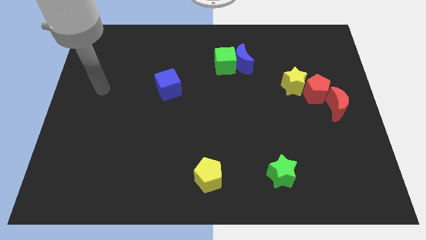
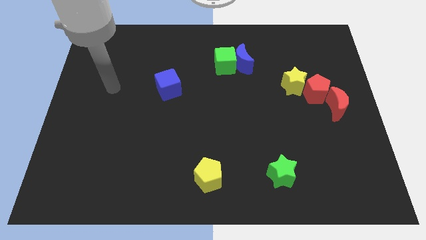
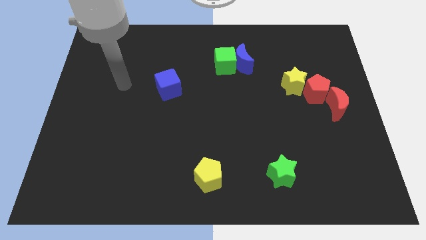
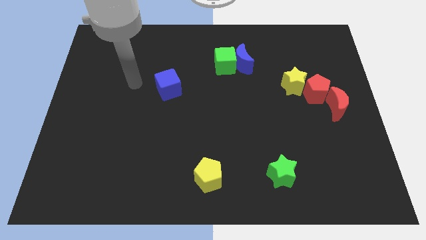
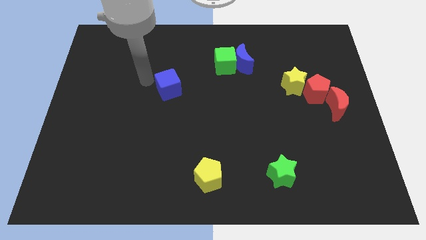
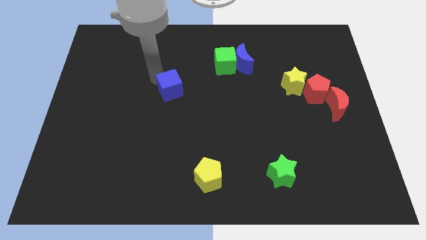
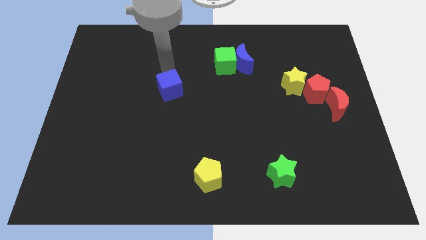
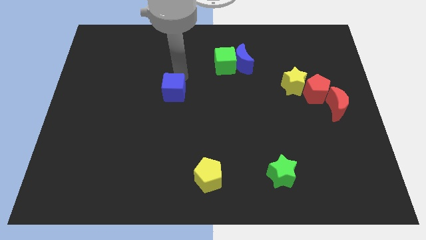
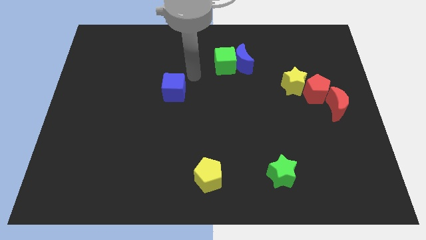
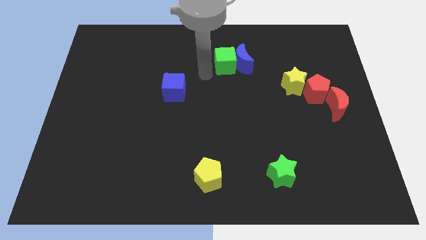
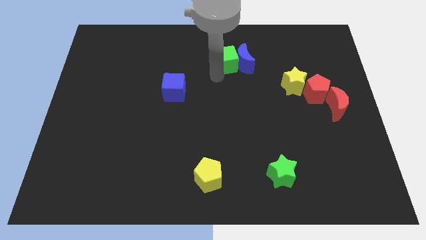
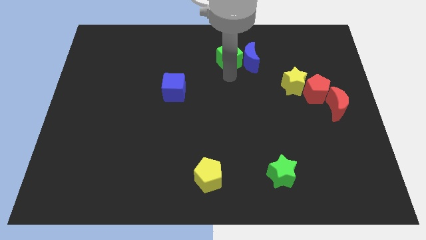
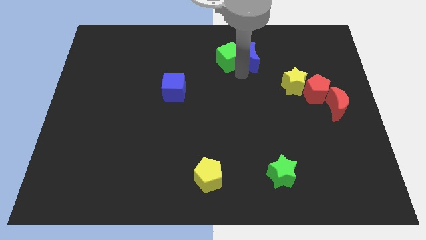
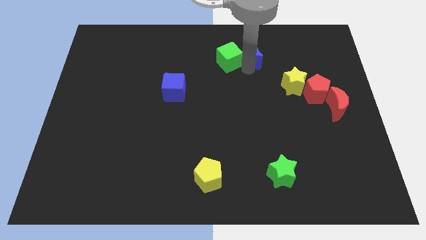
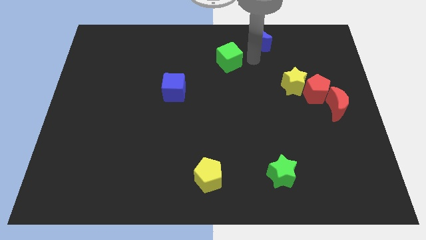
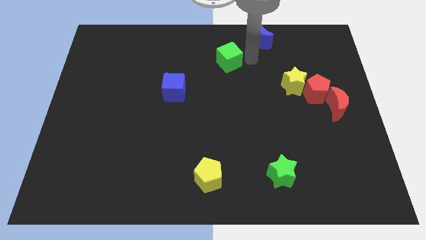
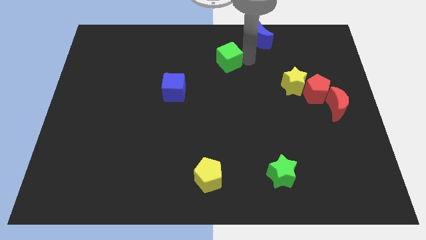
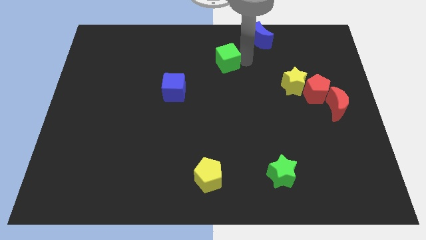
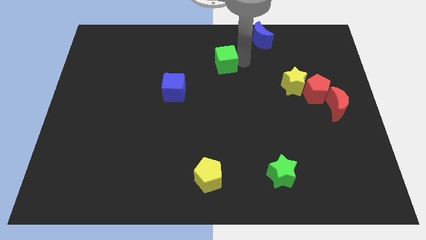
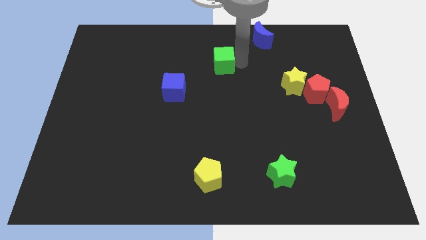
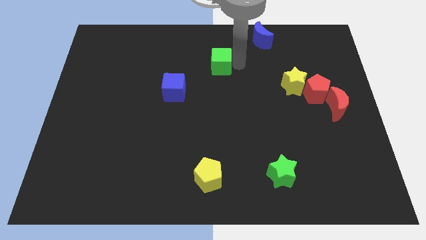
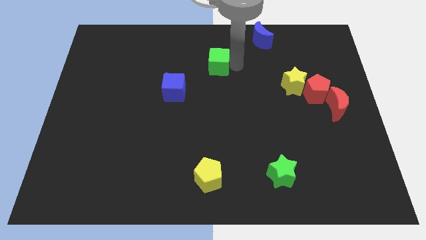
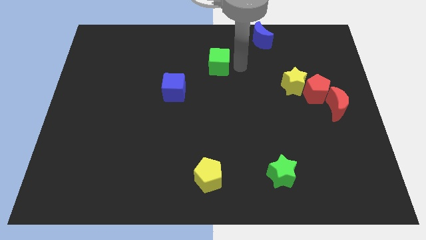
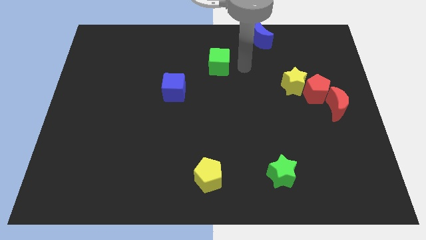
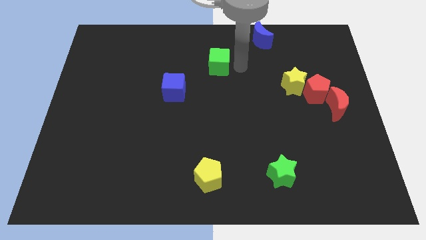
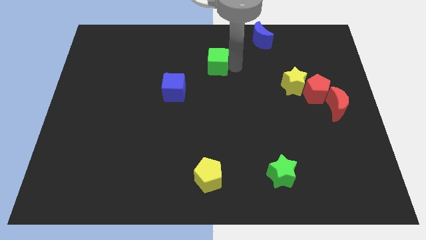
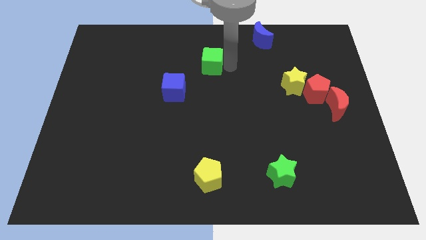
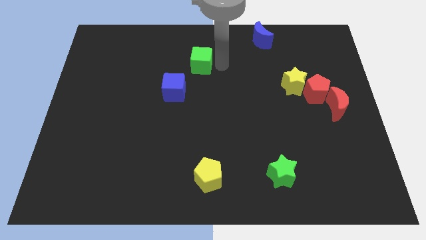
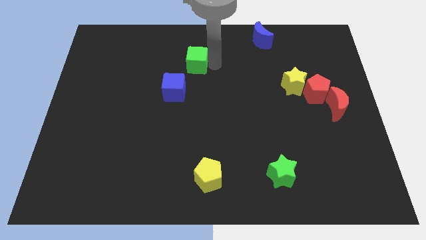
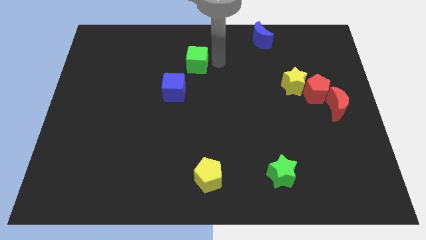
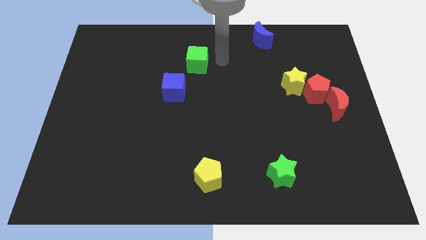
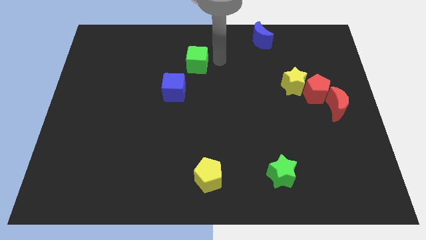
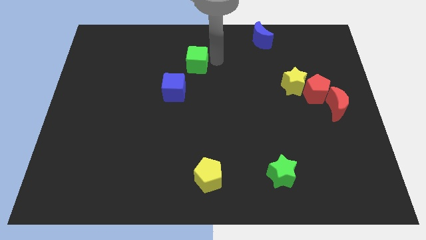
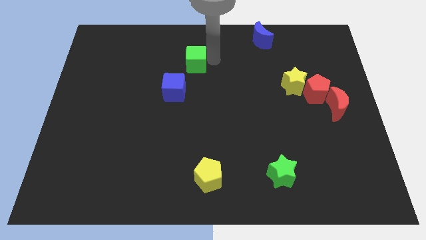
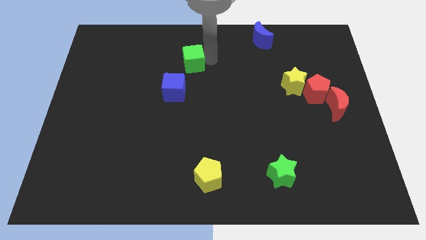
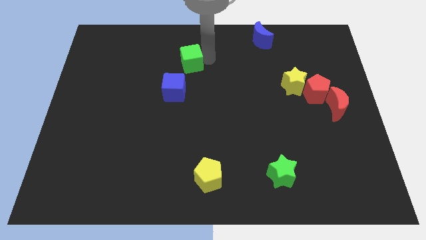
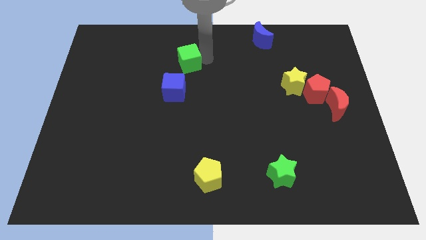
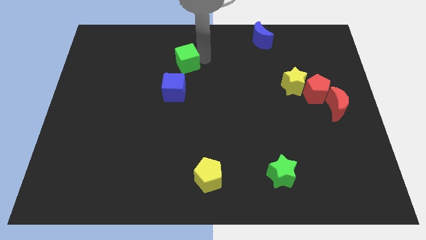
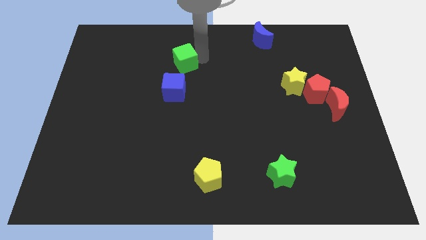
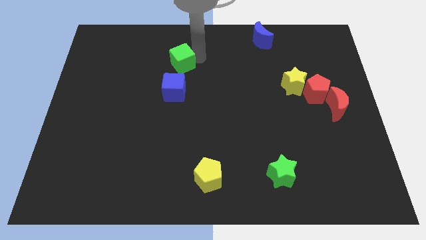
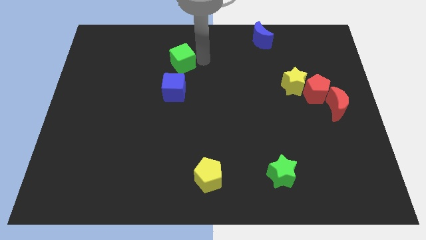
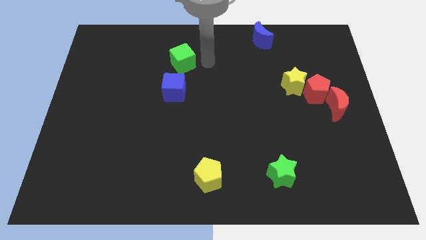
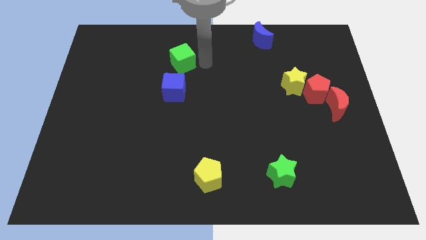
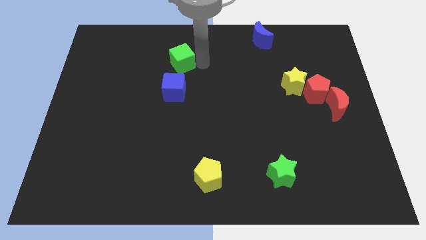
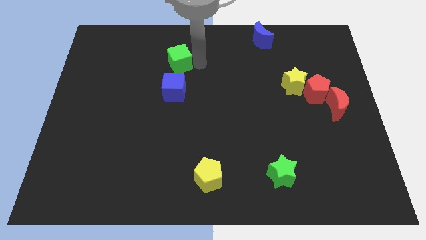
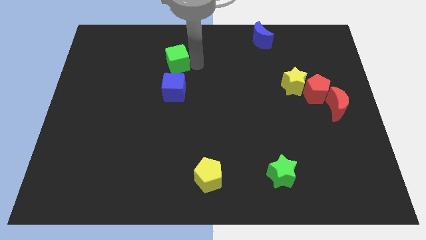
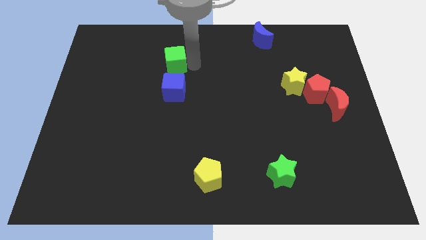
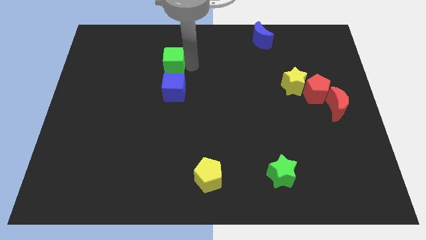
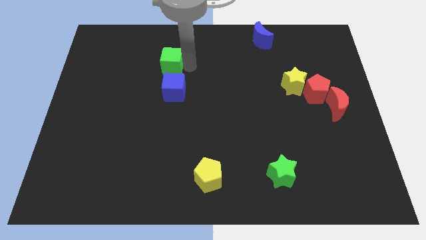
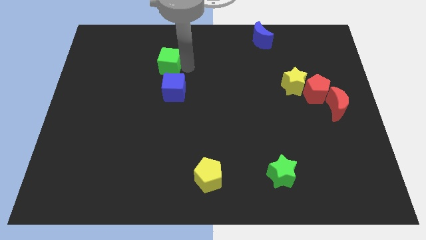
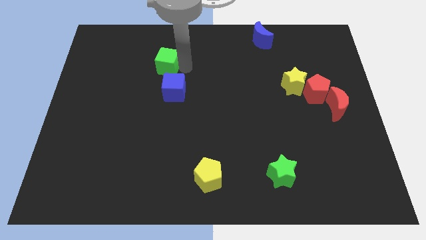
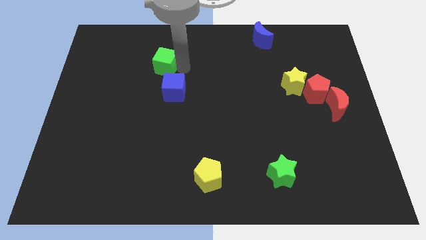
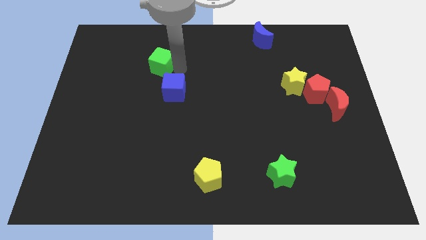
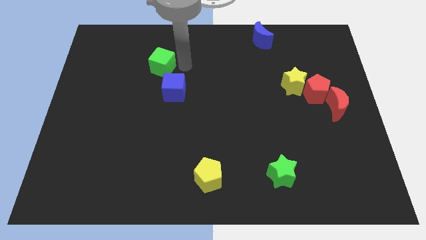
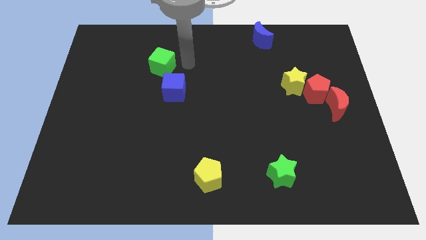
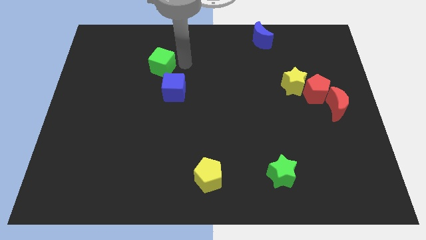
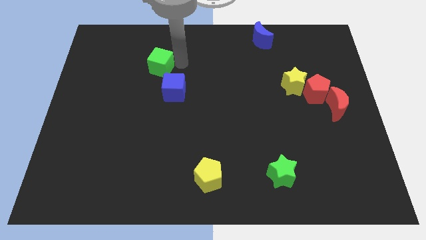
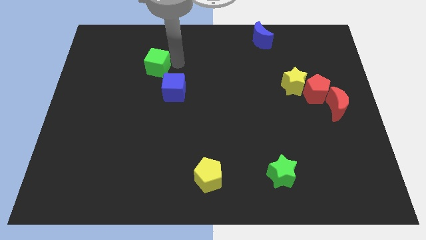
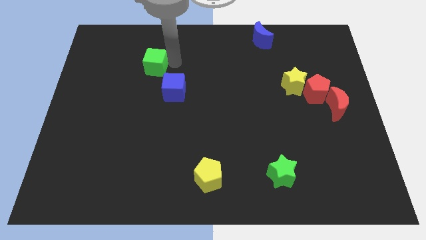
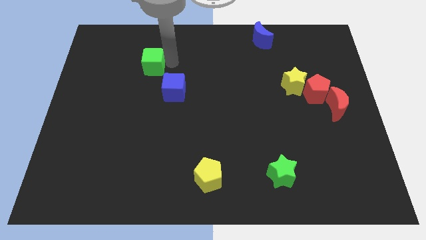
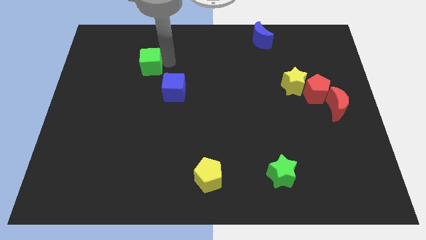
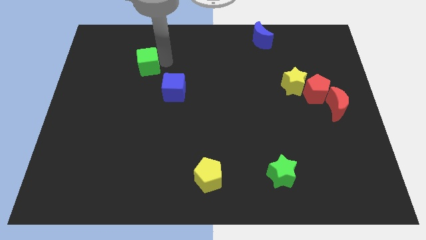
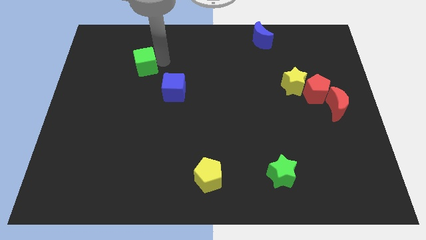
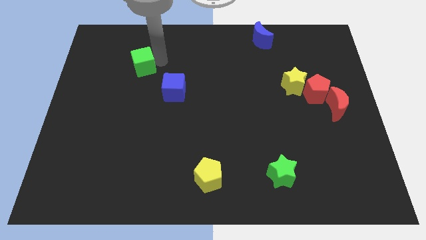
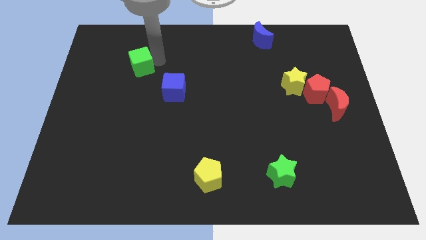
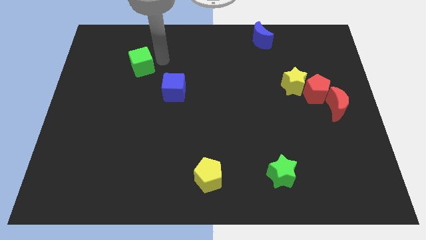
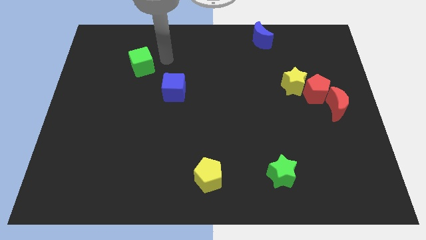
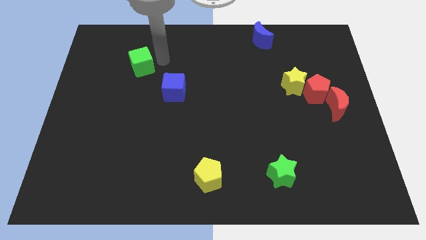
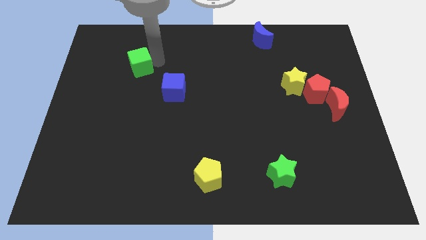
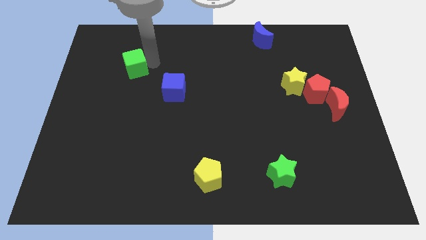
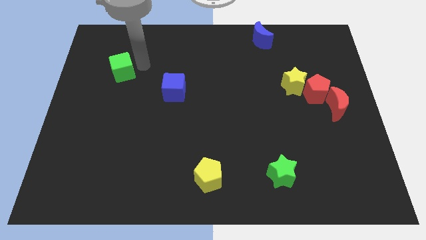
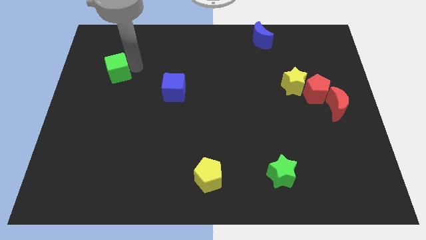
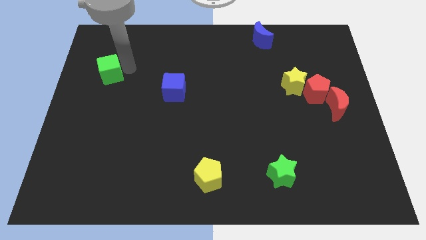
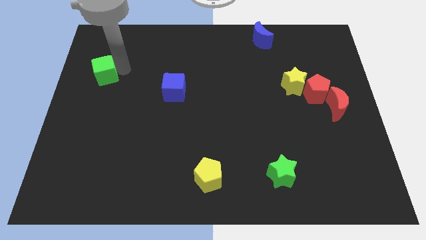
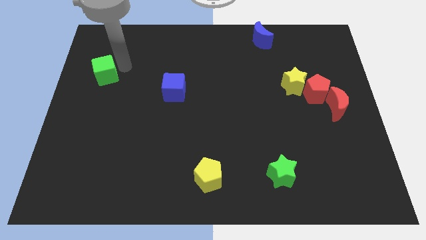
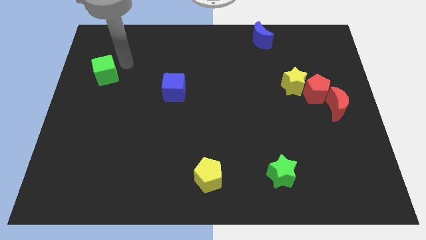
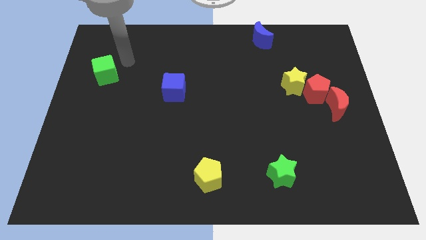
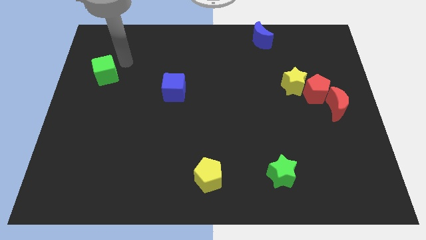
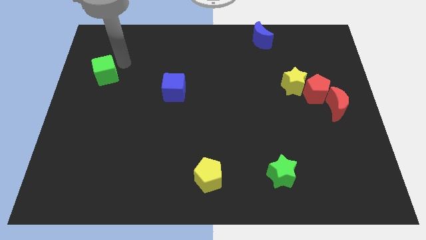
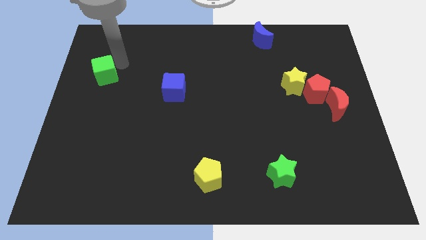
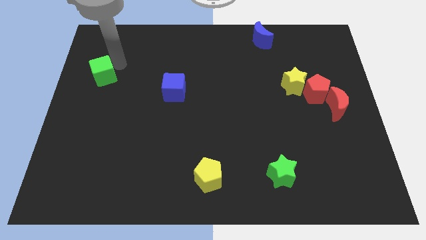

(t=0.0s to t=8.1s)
slide the green cube to the center left
